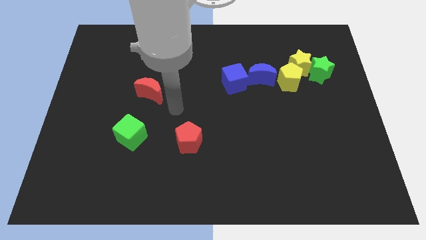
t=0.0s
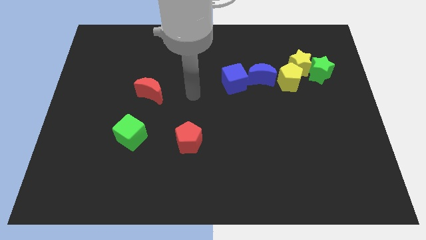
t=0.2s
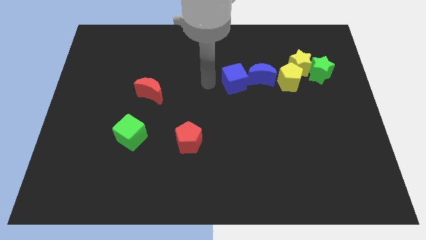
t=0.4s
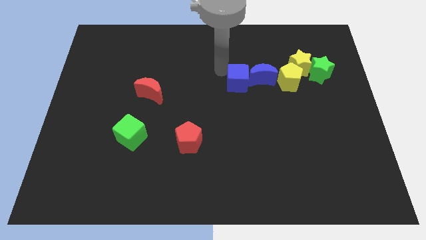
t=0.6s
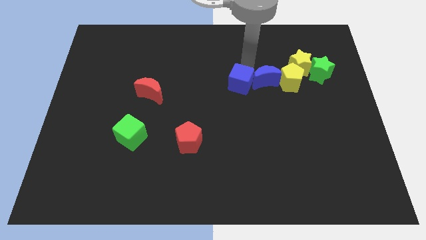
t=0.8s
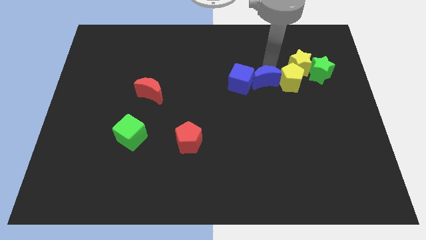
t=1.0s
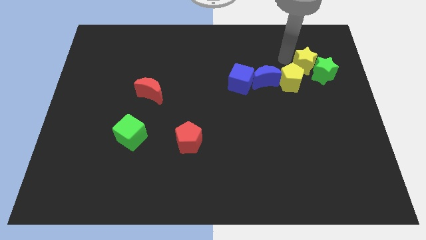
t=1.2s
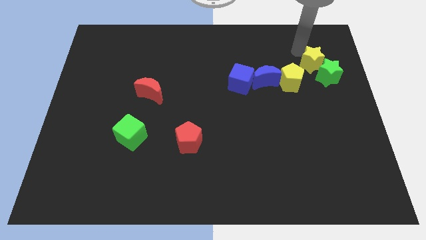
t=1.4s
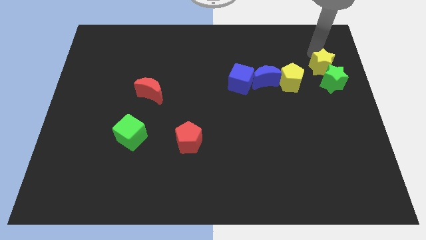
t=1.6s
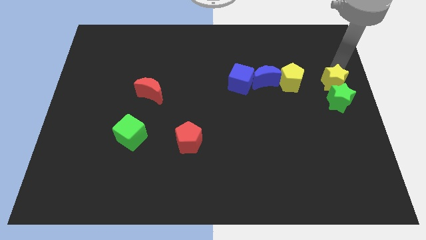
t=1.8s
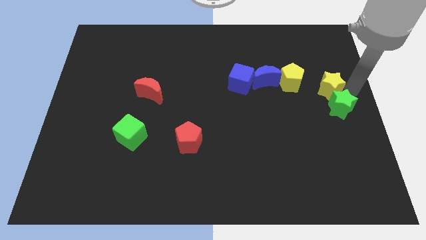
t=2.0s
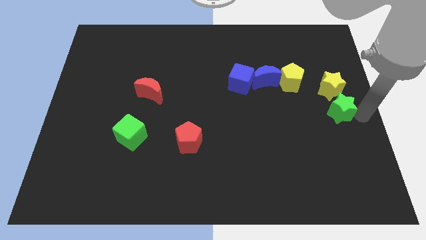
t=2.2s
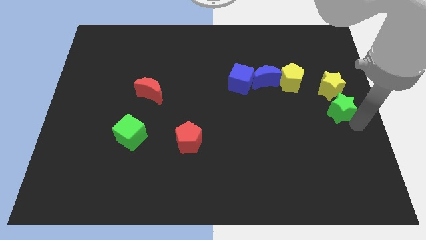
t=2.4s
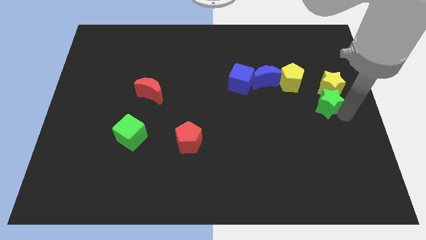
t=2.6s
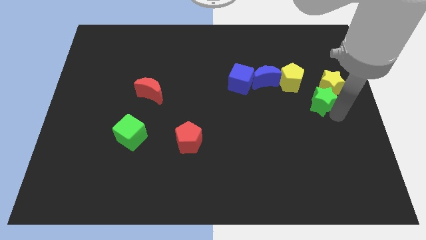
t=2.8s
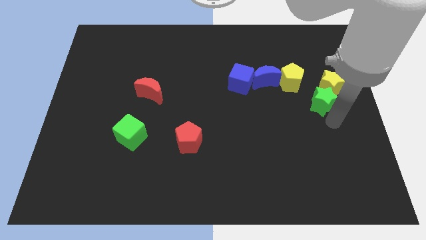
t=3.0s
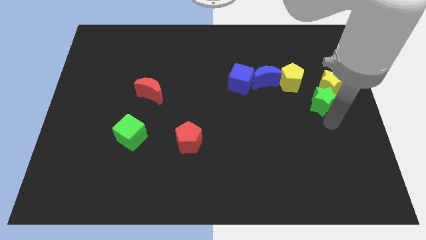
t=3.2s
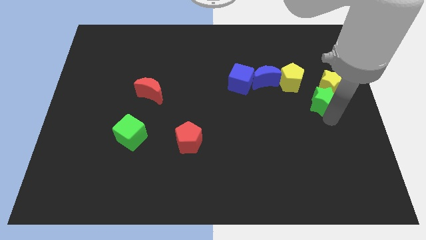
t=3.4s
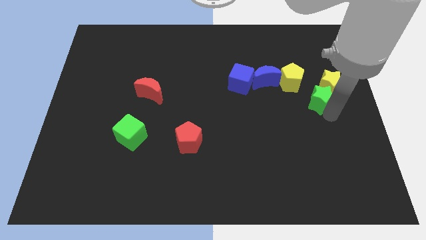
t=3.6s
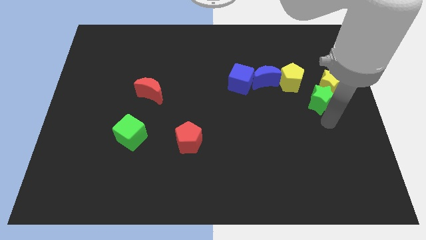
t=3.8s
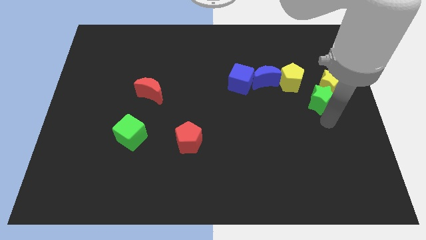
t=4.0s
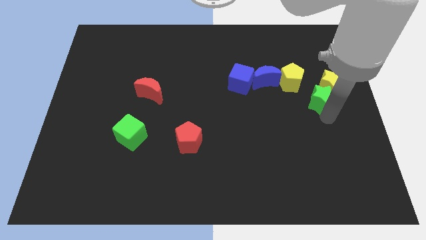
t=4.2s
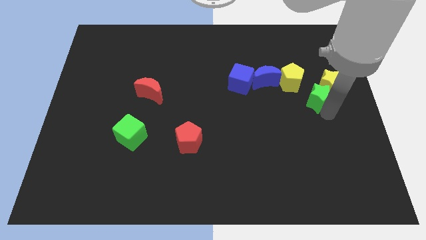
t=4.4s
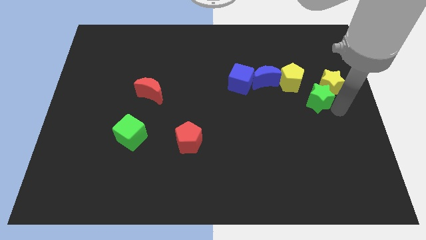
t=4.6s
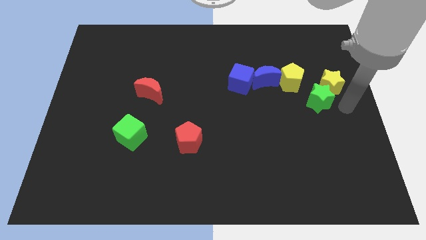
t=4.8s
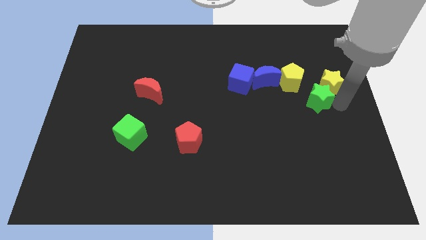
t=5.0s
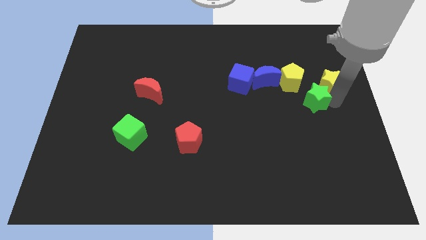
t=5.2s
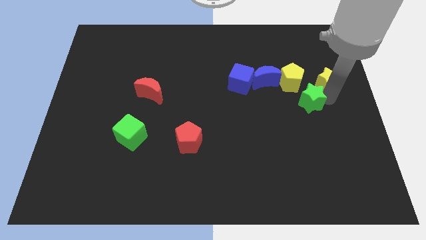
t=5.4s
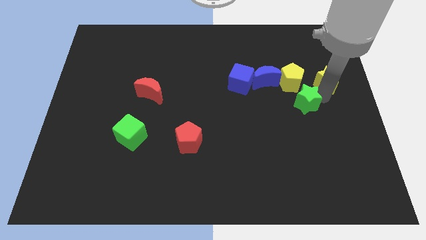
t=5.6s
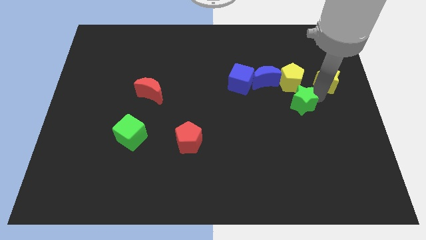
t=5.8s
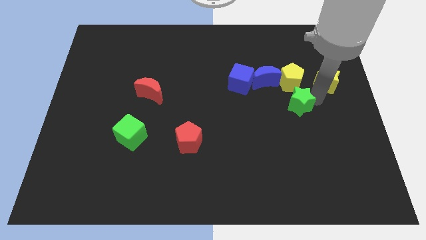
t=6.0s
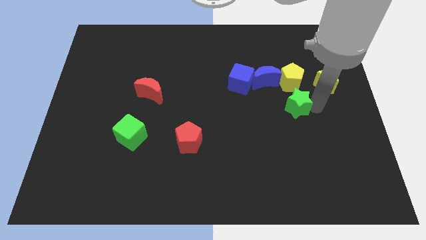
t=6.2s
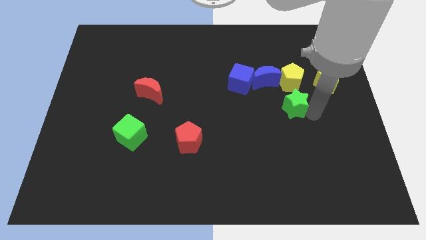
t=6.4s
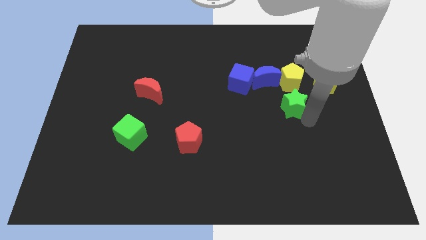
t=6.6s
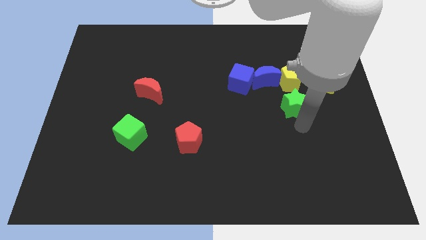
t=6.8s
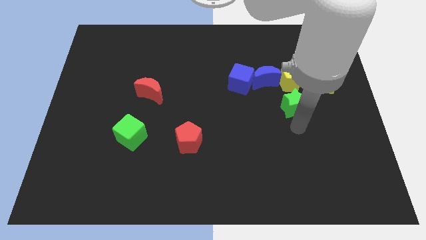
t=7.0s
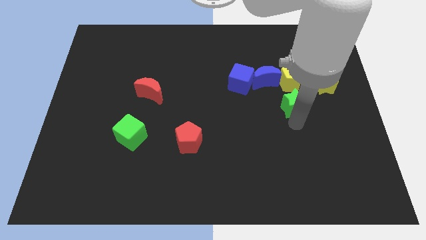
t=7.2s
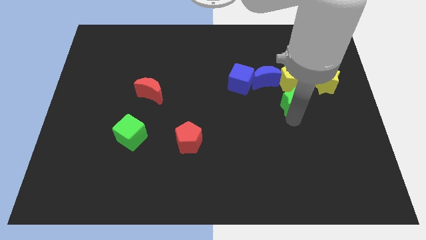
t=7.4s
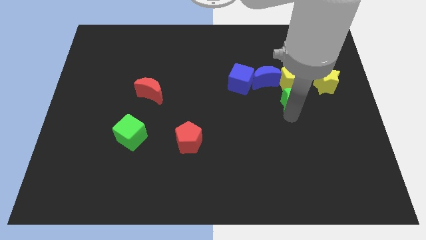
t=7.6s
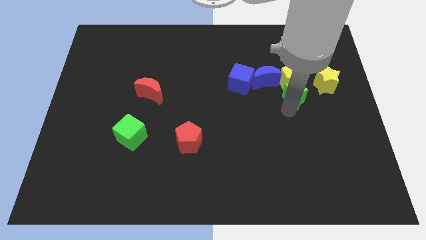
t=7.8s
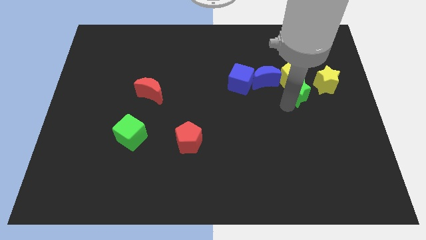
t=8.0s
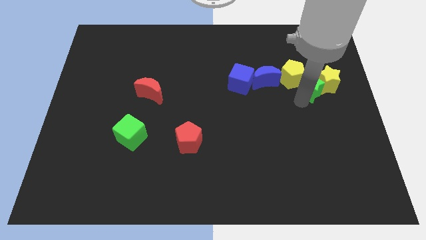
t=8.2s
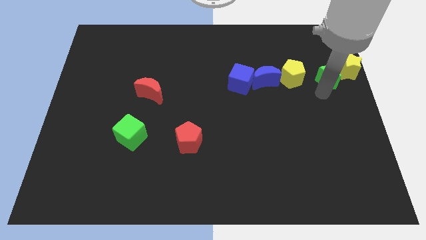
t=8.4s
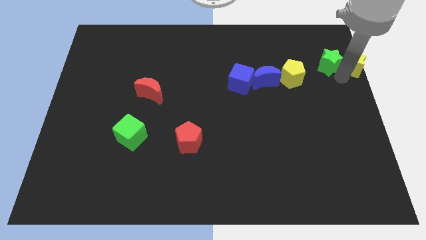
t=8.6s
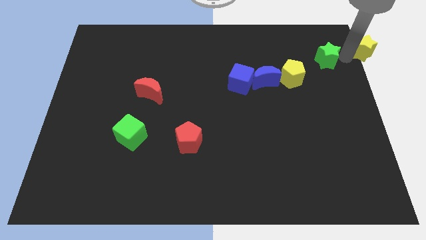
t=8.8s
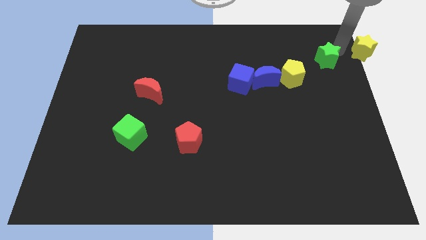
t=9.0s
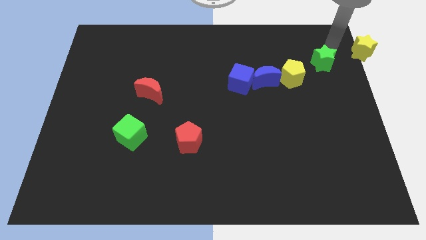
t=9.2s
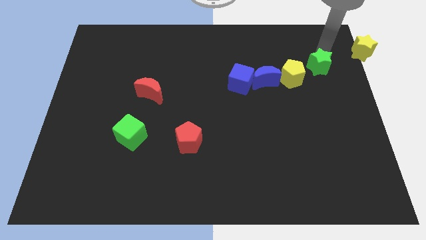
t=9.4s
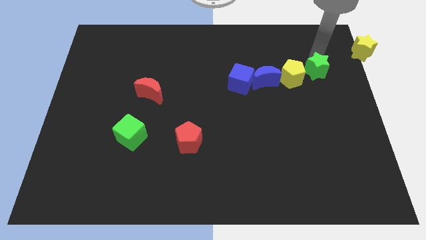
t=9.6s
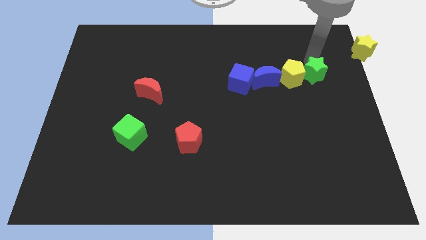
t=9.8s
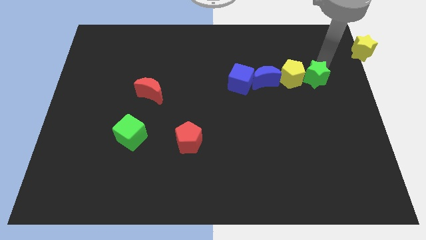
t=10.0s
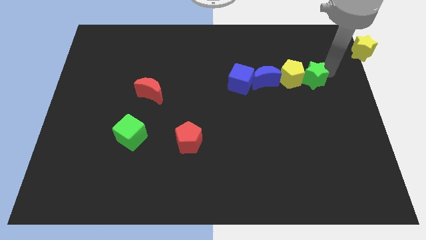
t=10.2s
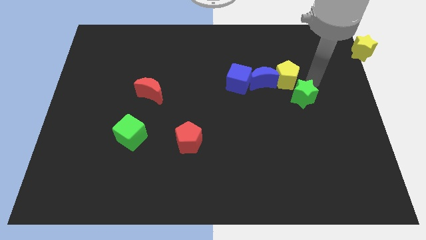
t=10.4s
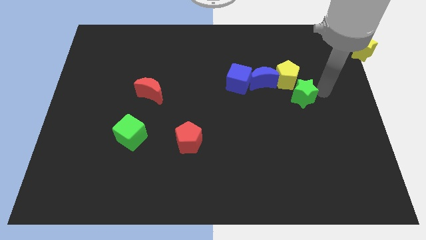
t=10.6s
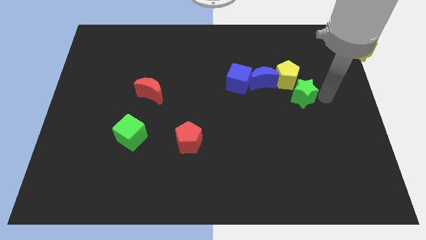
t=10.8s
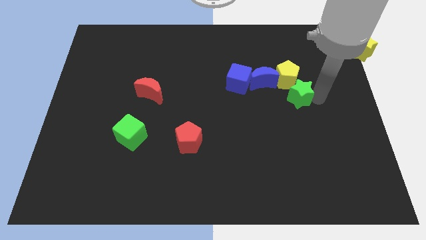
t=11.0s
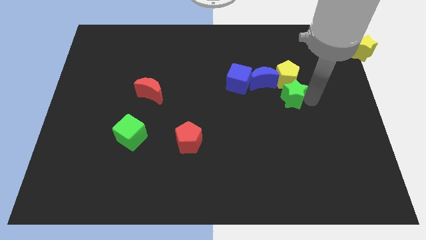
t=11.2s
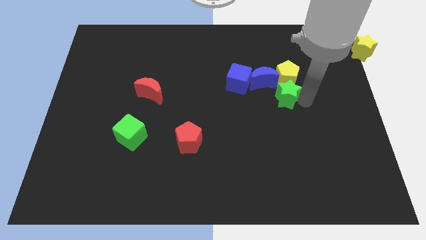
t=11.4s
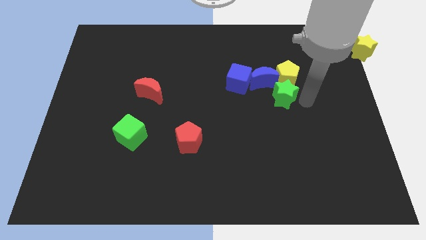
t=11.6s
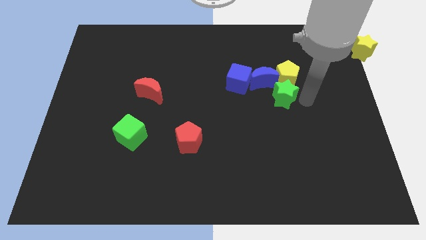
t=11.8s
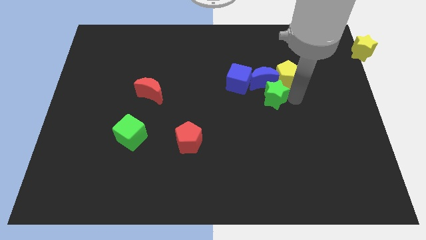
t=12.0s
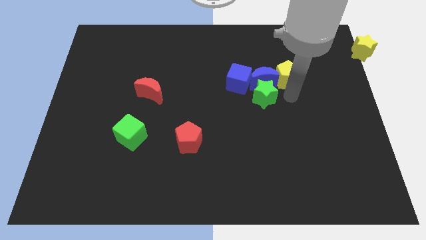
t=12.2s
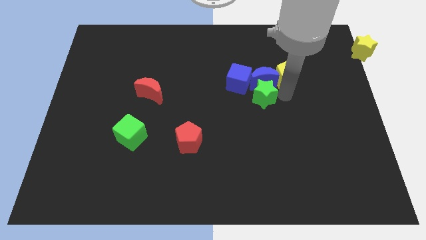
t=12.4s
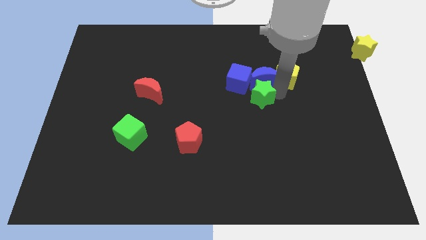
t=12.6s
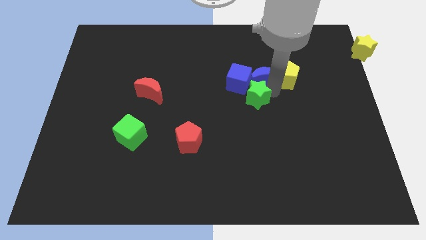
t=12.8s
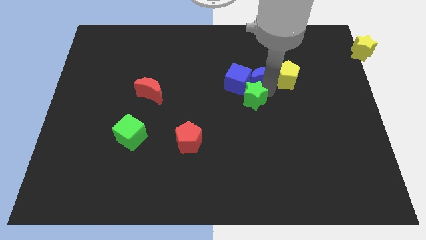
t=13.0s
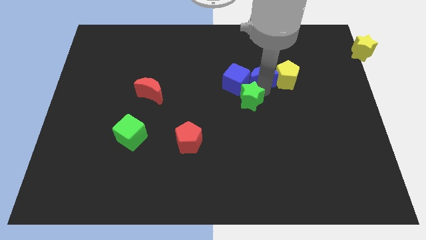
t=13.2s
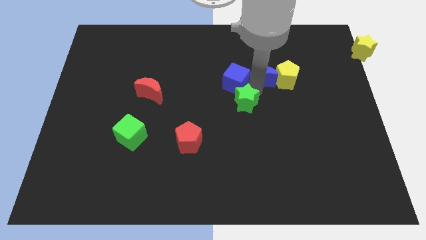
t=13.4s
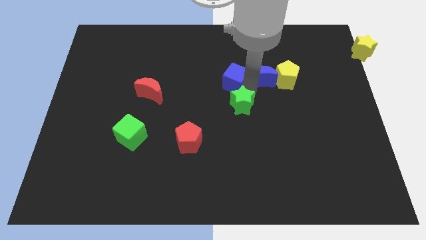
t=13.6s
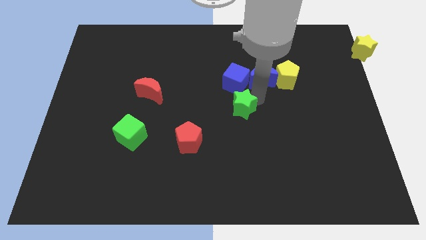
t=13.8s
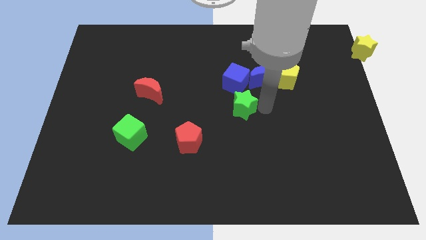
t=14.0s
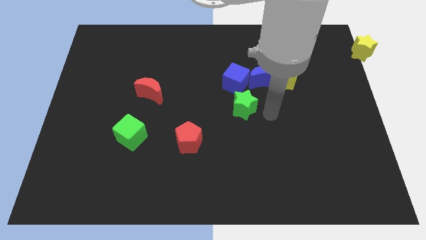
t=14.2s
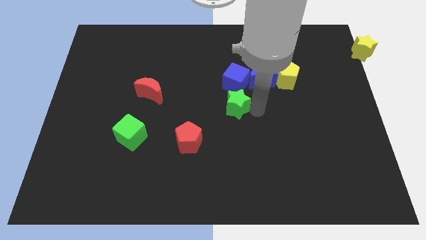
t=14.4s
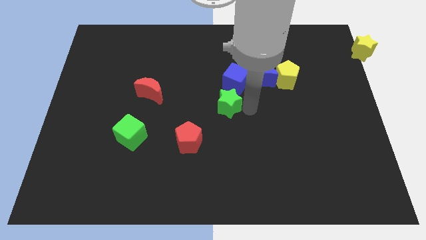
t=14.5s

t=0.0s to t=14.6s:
move the green star to the bottom left side of the blue cube
